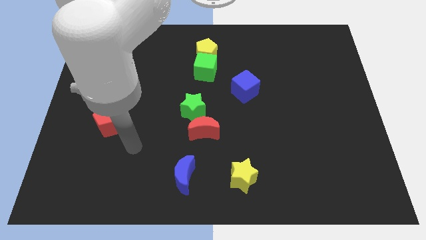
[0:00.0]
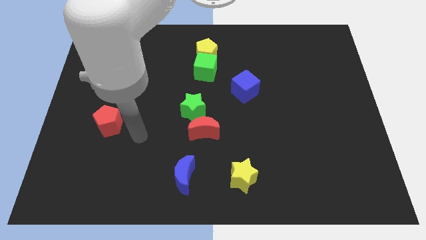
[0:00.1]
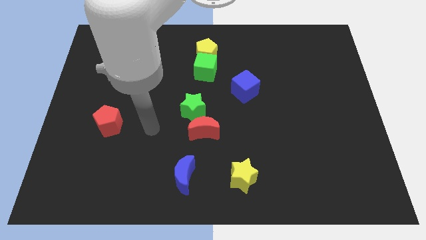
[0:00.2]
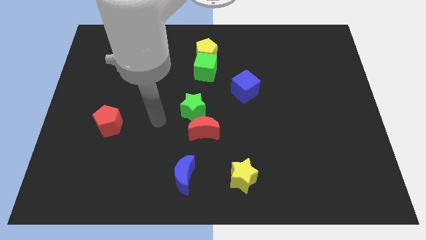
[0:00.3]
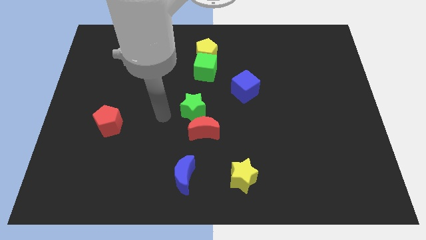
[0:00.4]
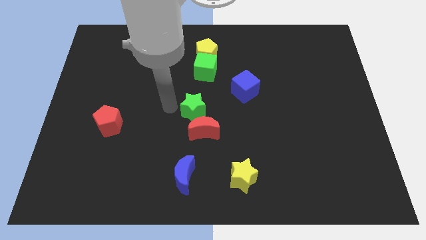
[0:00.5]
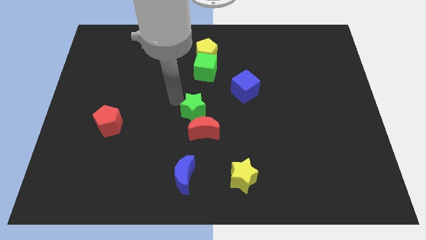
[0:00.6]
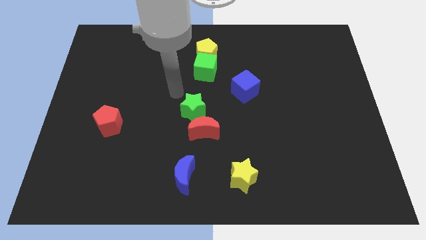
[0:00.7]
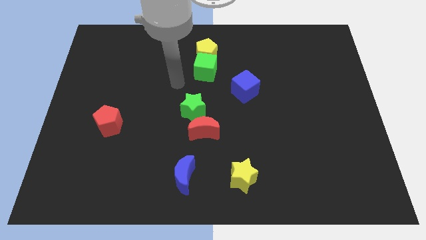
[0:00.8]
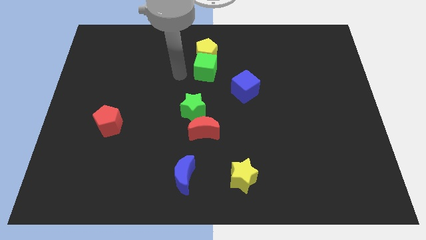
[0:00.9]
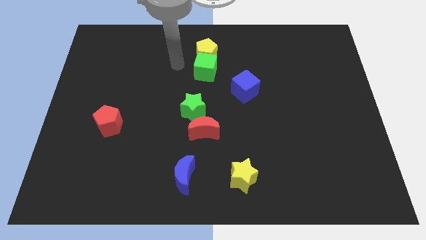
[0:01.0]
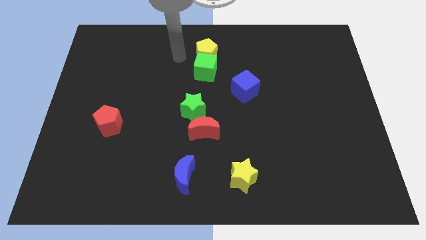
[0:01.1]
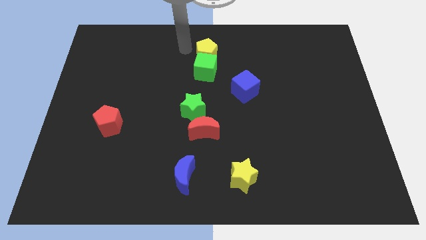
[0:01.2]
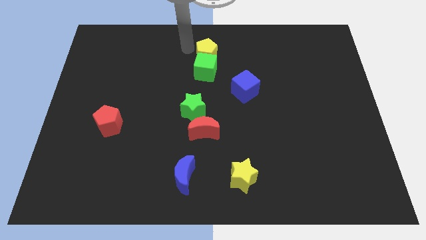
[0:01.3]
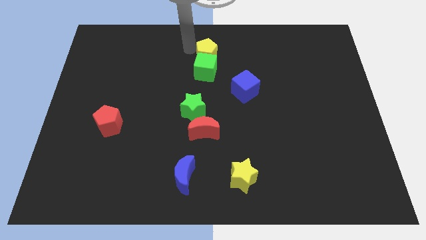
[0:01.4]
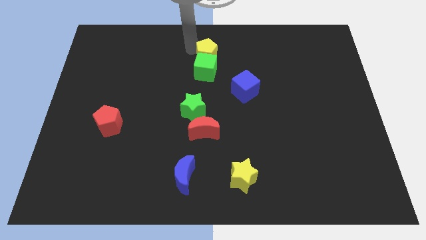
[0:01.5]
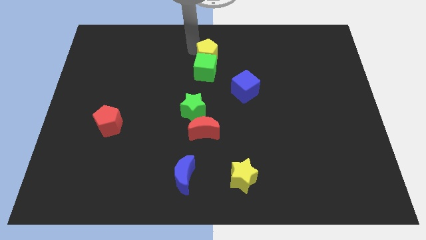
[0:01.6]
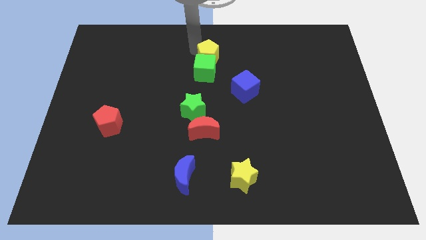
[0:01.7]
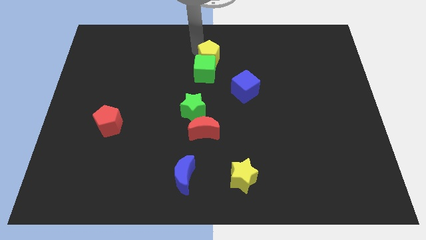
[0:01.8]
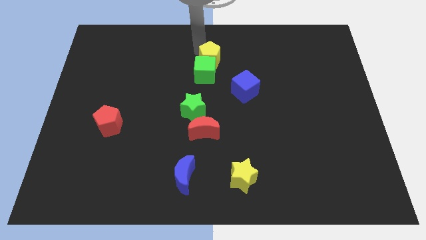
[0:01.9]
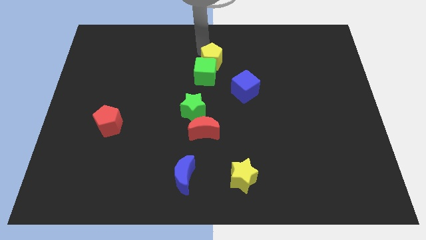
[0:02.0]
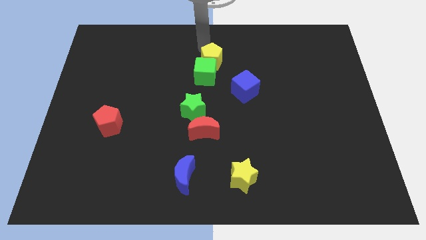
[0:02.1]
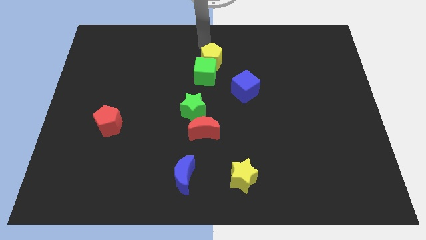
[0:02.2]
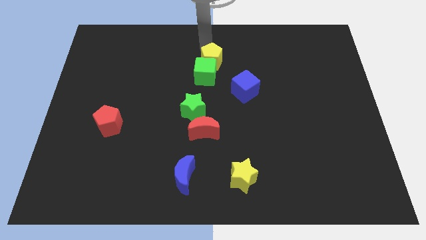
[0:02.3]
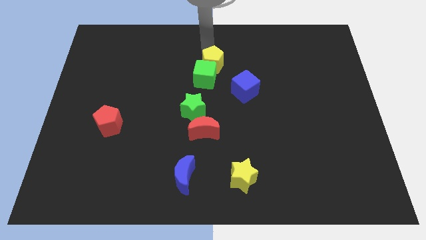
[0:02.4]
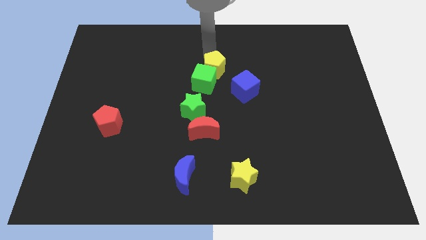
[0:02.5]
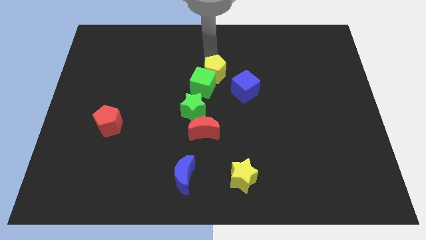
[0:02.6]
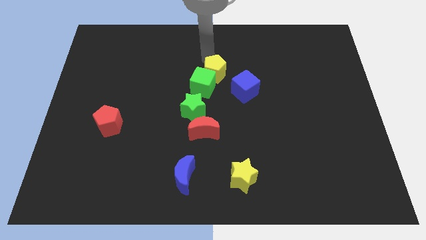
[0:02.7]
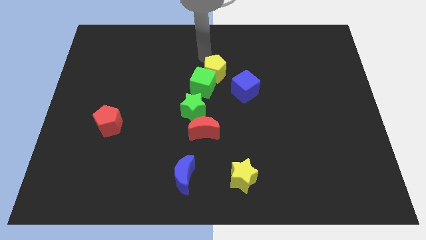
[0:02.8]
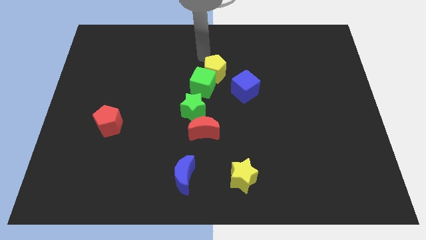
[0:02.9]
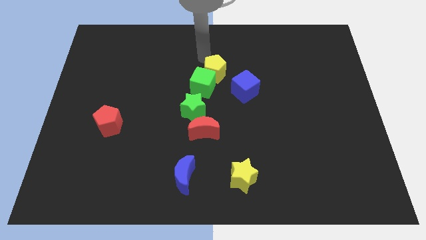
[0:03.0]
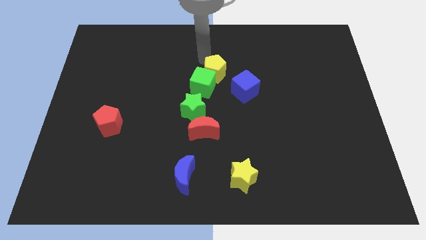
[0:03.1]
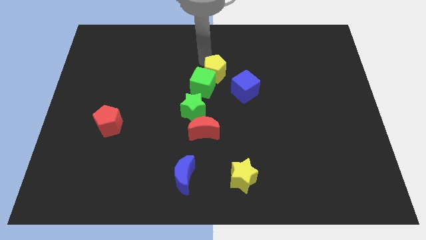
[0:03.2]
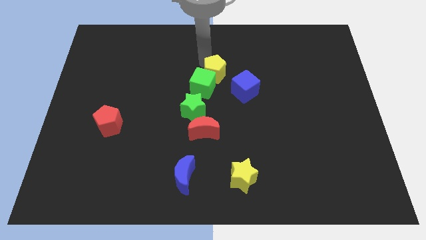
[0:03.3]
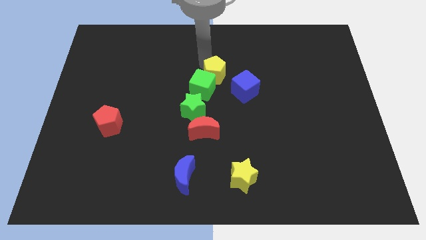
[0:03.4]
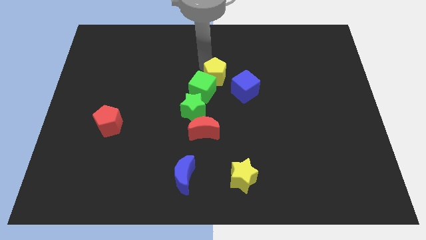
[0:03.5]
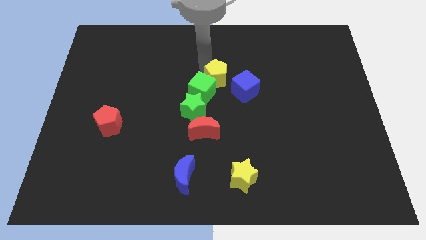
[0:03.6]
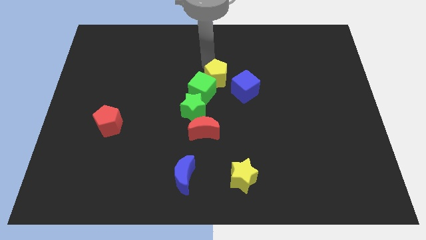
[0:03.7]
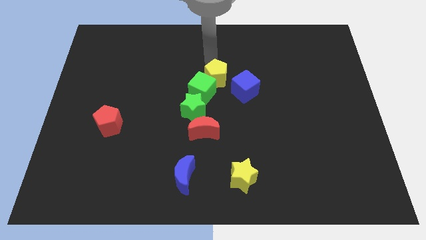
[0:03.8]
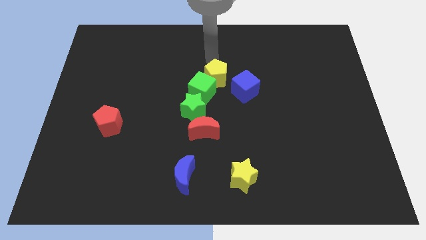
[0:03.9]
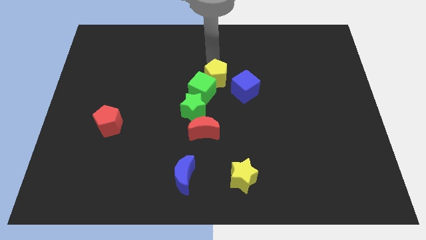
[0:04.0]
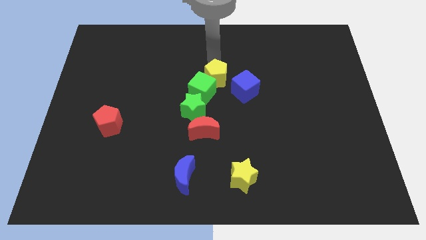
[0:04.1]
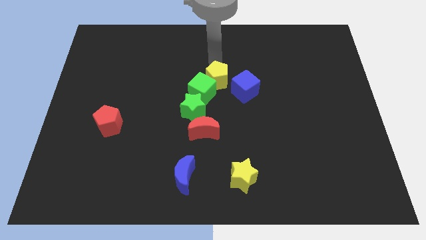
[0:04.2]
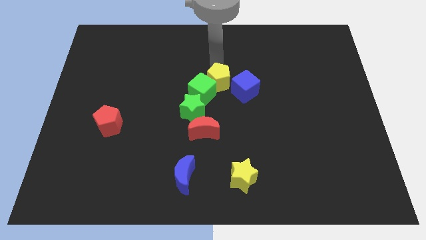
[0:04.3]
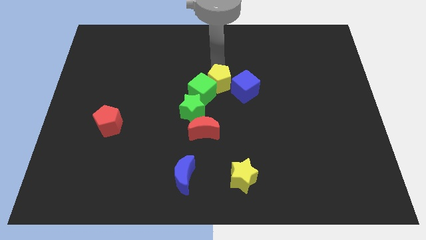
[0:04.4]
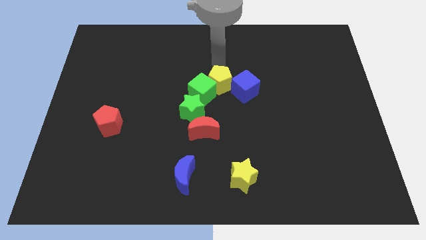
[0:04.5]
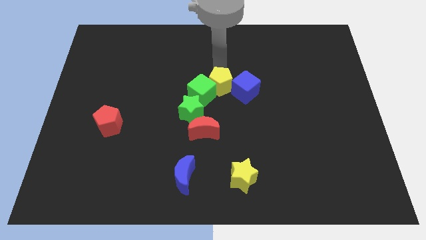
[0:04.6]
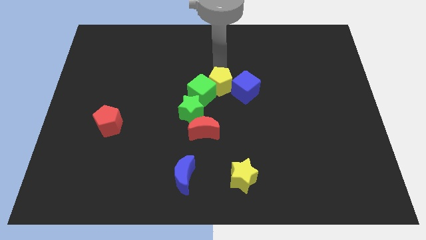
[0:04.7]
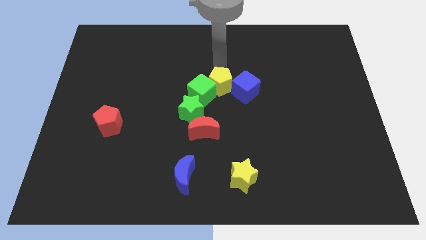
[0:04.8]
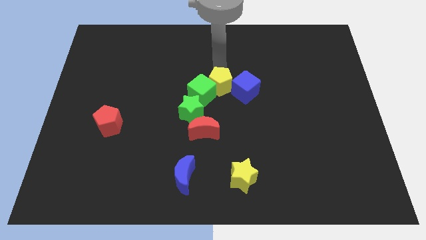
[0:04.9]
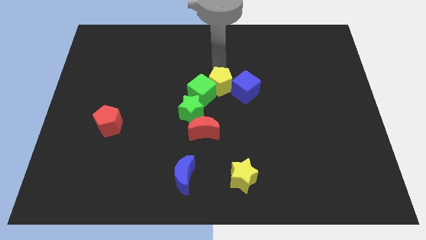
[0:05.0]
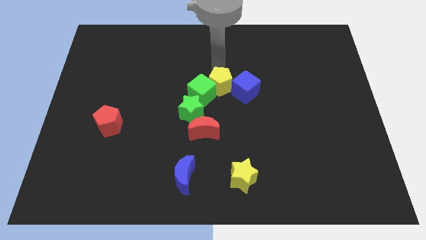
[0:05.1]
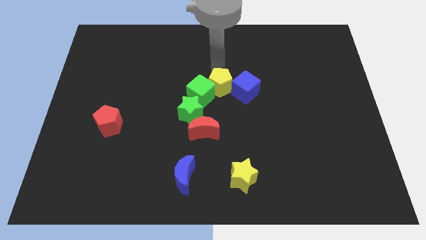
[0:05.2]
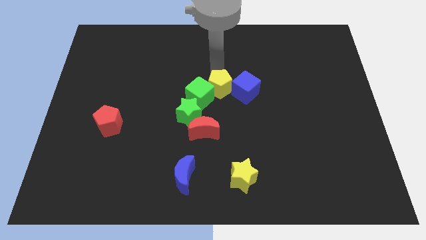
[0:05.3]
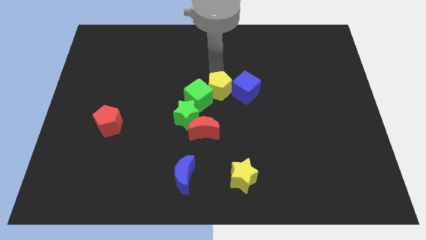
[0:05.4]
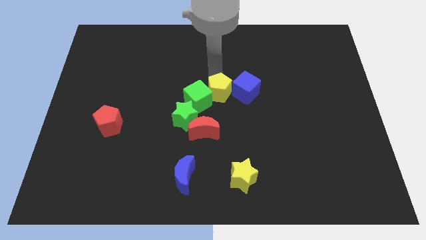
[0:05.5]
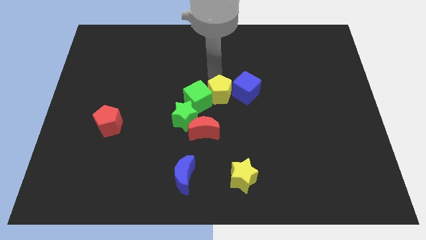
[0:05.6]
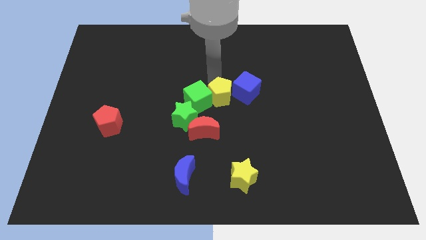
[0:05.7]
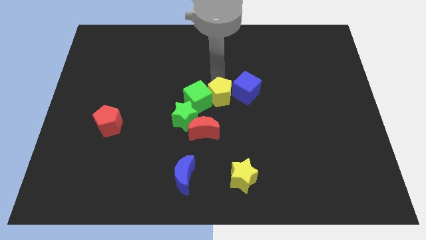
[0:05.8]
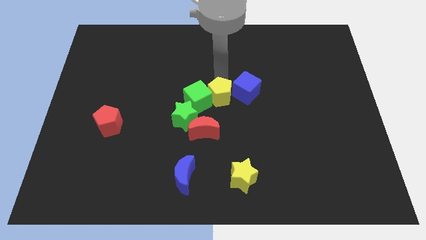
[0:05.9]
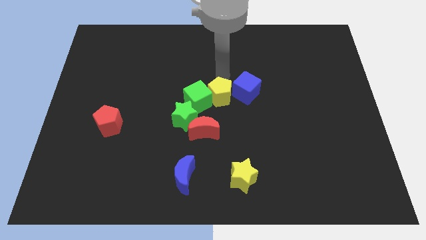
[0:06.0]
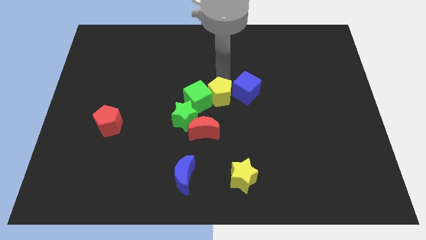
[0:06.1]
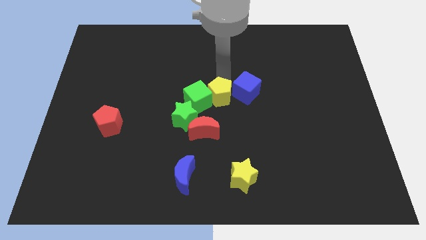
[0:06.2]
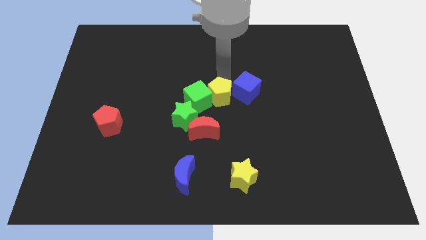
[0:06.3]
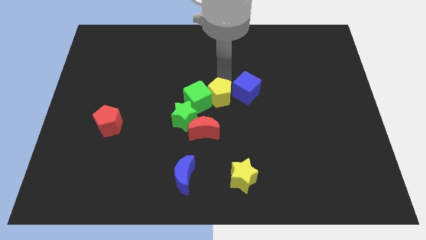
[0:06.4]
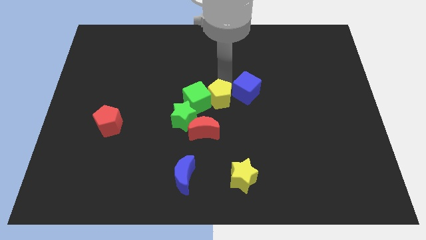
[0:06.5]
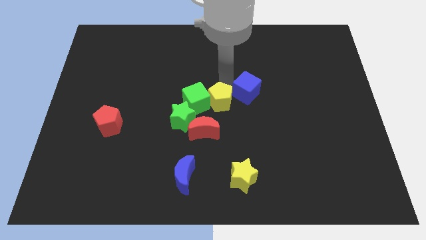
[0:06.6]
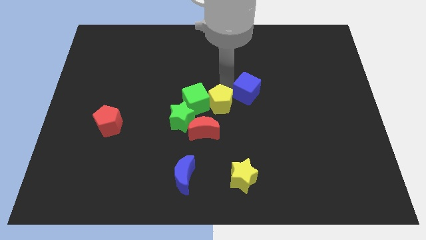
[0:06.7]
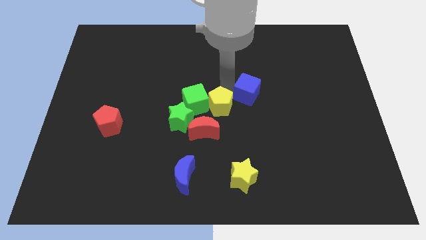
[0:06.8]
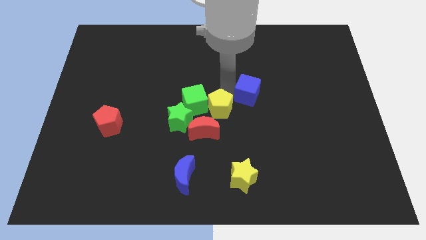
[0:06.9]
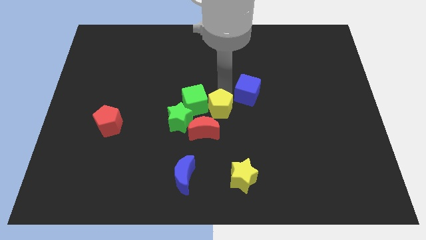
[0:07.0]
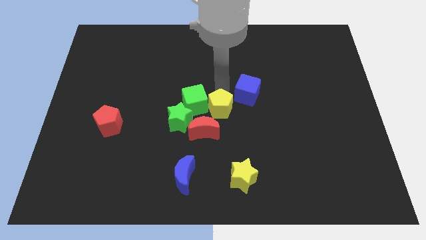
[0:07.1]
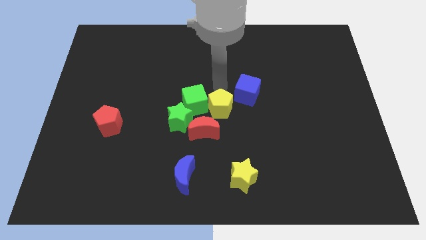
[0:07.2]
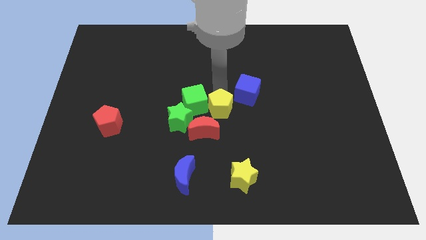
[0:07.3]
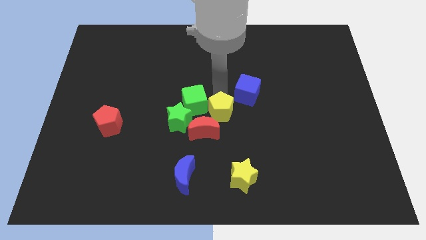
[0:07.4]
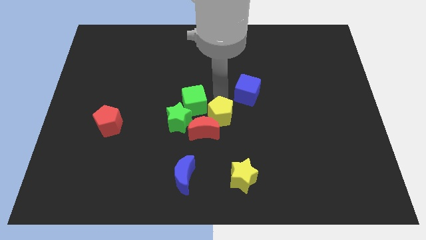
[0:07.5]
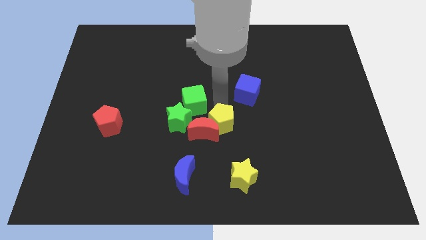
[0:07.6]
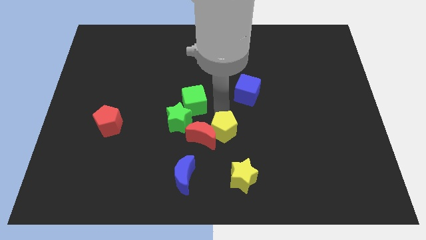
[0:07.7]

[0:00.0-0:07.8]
push the yellow pentagon diagonally down and to the right of the red moon

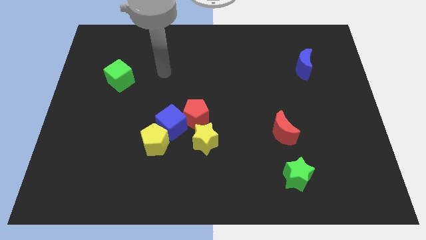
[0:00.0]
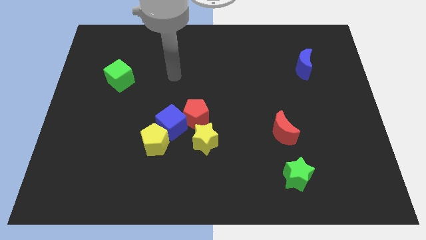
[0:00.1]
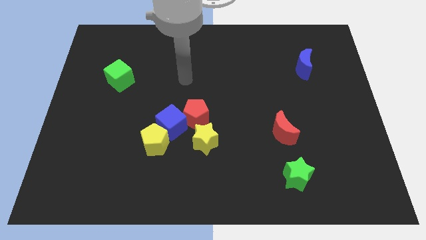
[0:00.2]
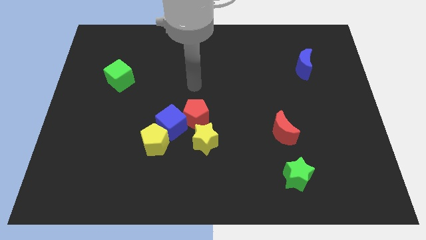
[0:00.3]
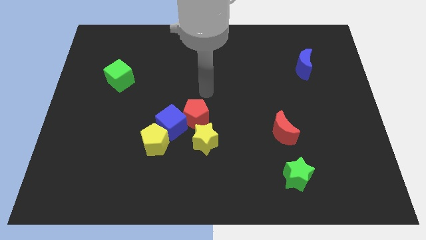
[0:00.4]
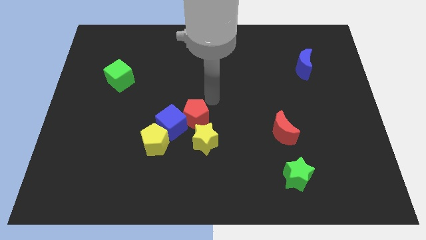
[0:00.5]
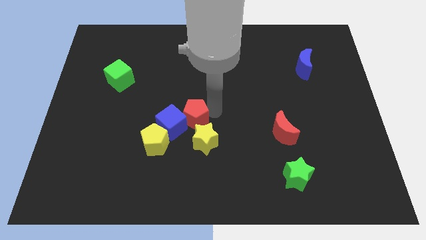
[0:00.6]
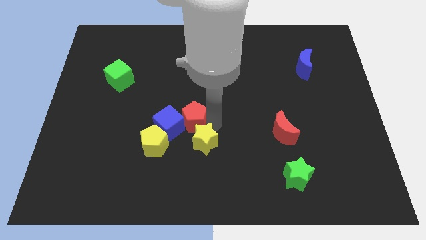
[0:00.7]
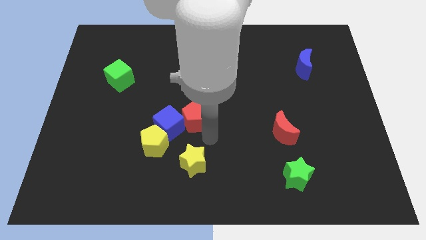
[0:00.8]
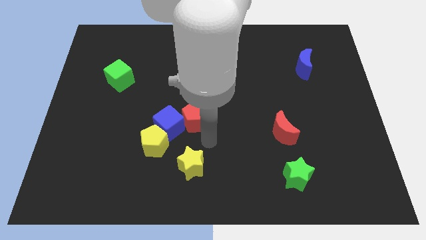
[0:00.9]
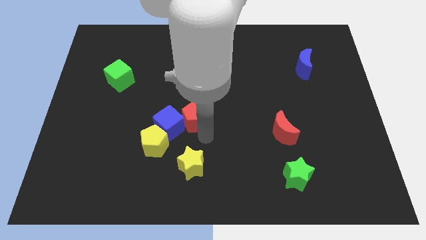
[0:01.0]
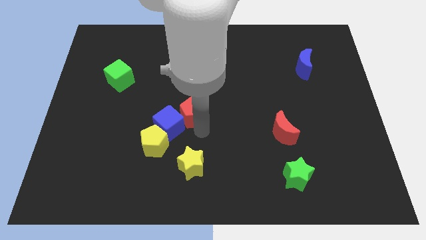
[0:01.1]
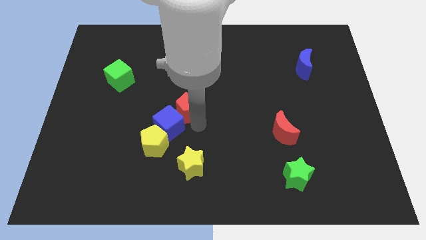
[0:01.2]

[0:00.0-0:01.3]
put the red pentagon to the top side of the blue cube
